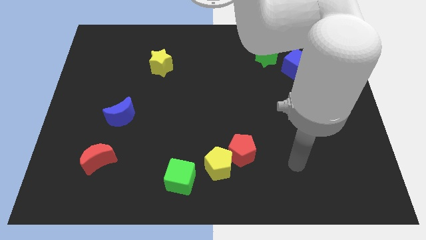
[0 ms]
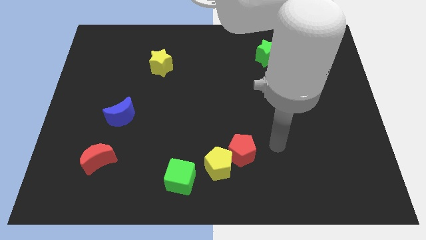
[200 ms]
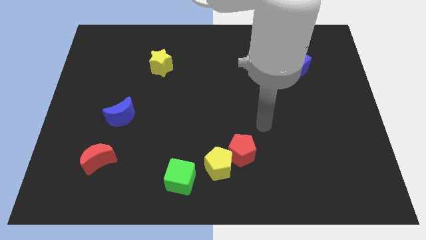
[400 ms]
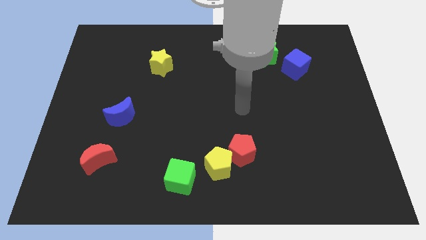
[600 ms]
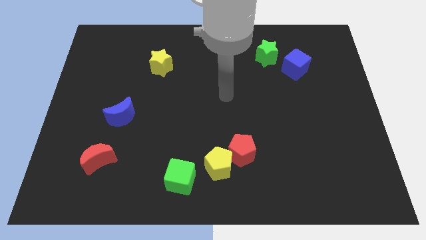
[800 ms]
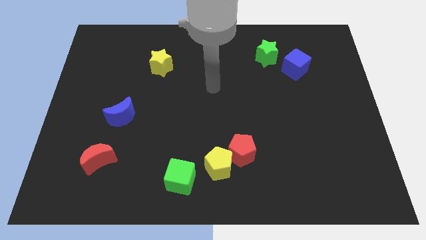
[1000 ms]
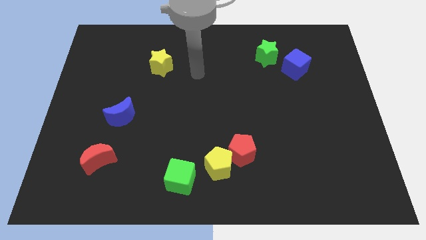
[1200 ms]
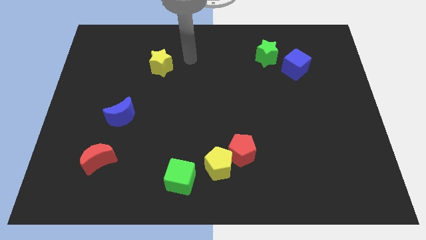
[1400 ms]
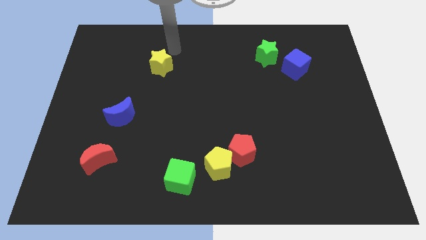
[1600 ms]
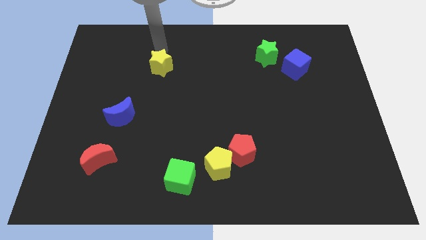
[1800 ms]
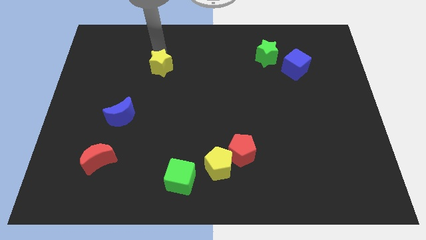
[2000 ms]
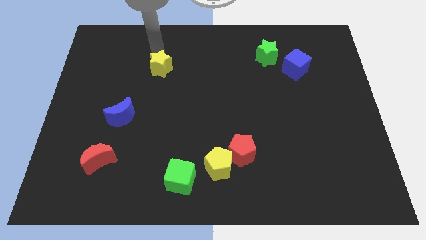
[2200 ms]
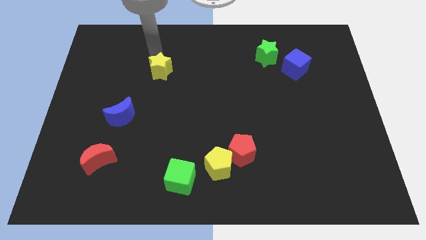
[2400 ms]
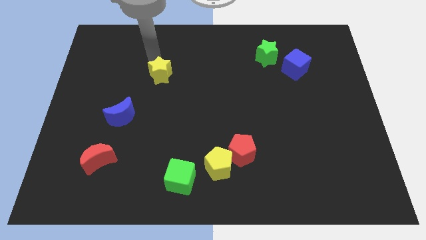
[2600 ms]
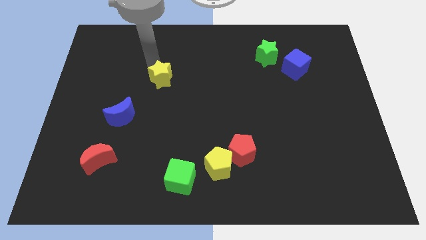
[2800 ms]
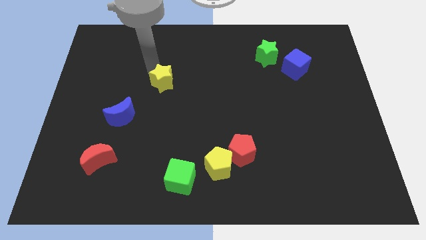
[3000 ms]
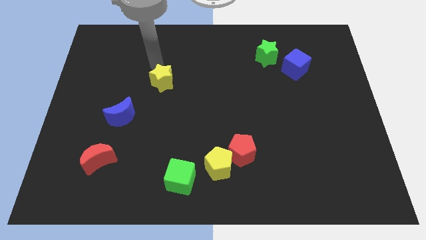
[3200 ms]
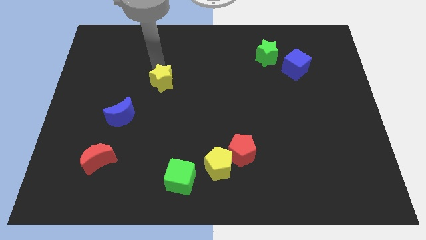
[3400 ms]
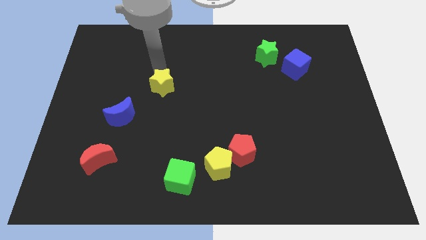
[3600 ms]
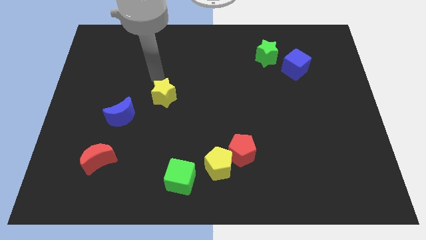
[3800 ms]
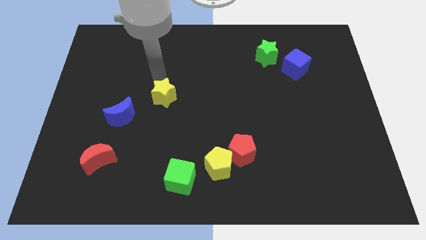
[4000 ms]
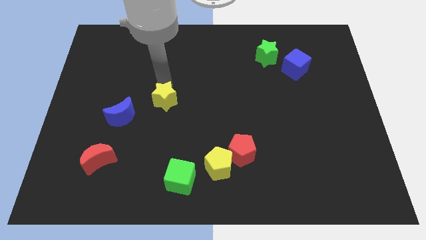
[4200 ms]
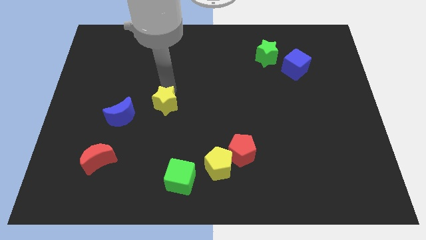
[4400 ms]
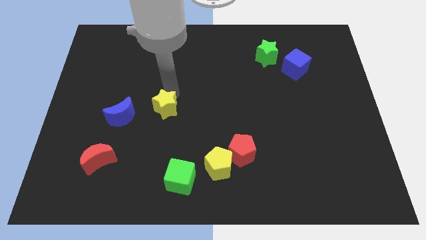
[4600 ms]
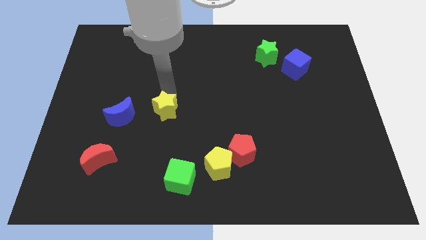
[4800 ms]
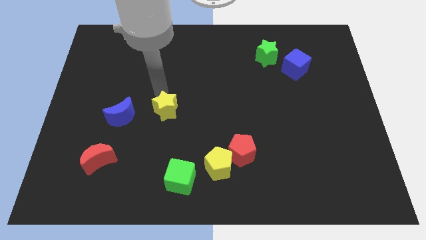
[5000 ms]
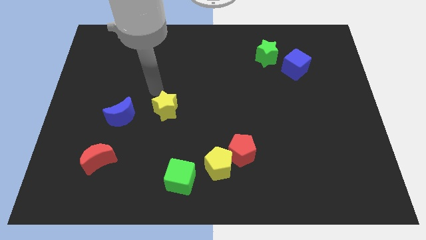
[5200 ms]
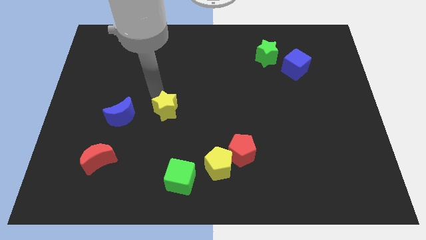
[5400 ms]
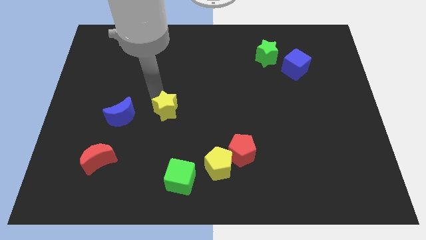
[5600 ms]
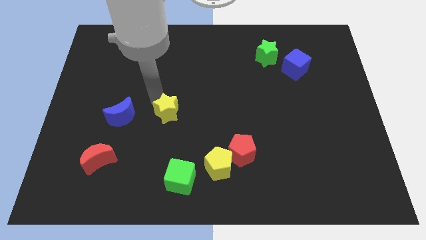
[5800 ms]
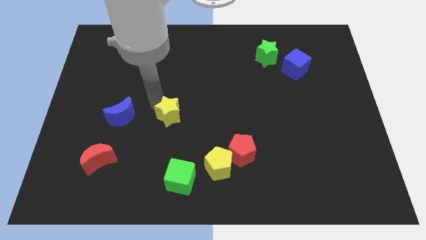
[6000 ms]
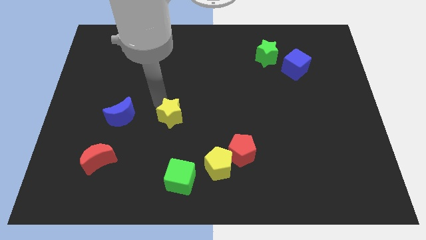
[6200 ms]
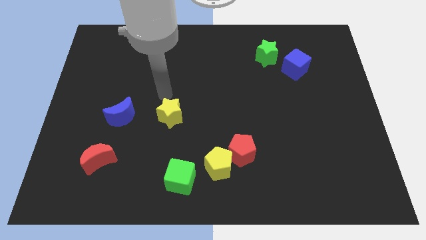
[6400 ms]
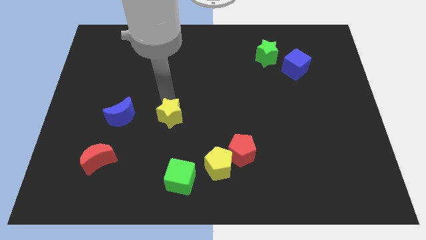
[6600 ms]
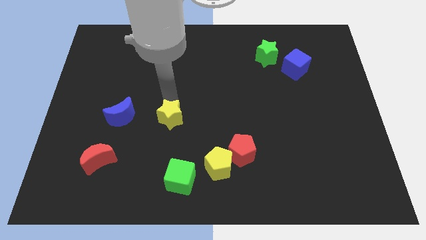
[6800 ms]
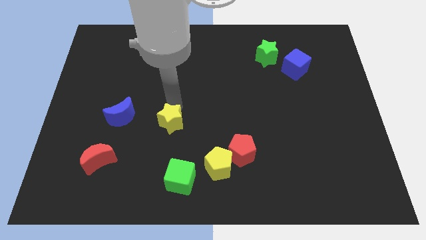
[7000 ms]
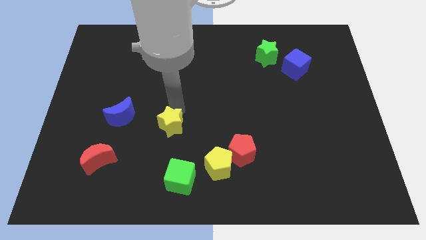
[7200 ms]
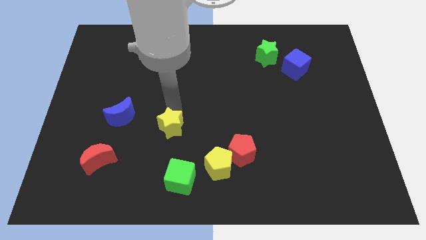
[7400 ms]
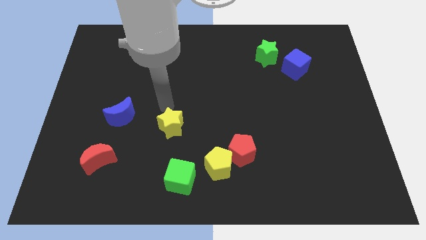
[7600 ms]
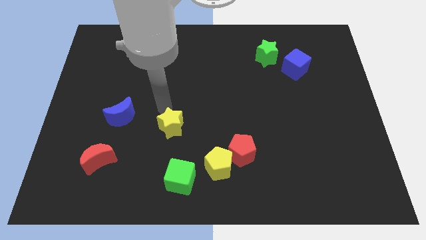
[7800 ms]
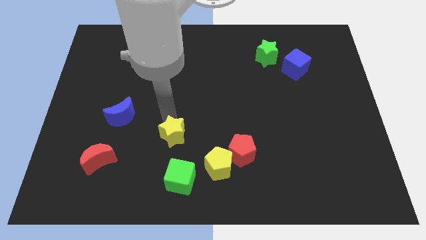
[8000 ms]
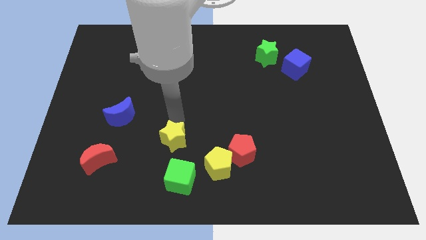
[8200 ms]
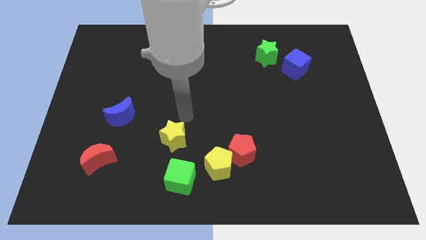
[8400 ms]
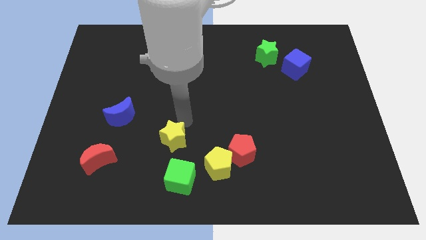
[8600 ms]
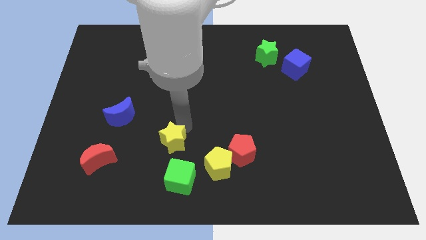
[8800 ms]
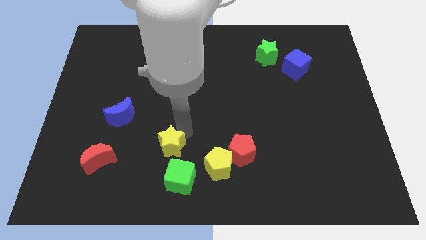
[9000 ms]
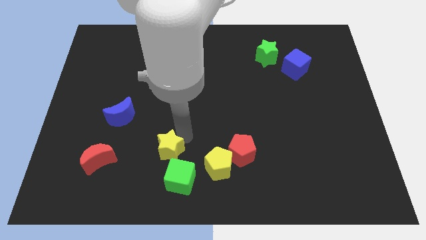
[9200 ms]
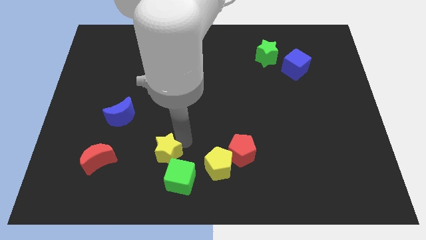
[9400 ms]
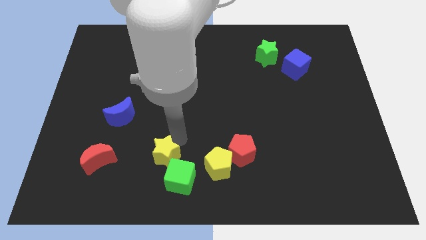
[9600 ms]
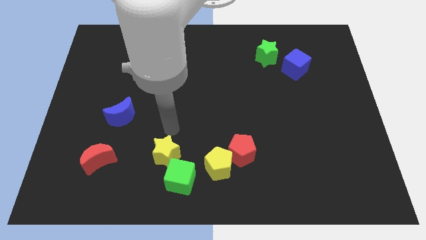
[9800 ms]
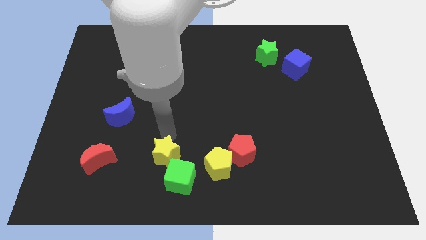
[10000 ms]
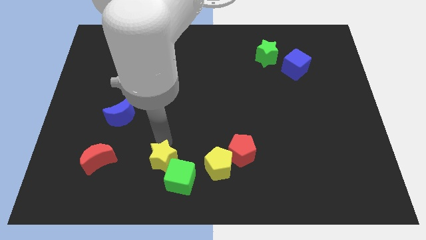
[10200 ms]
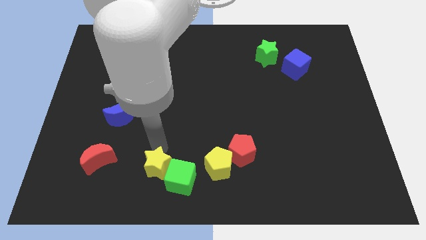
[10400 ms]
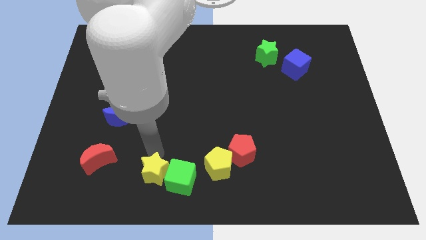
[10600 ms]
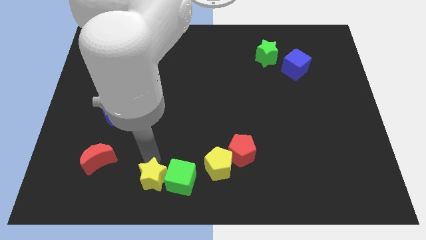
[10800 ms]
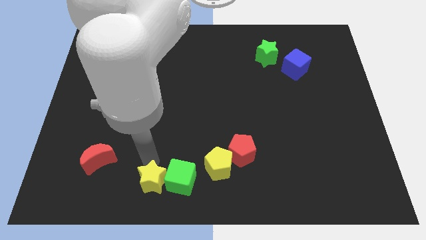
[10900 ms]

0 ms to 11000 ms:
put the yellow star to the bottom

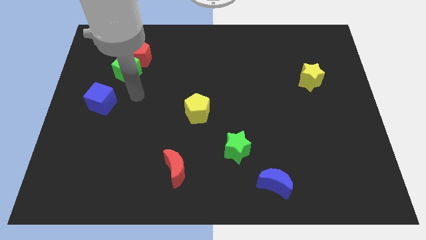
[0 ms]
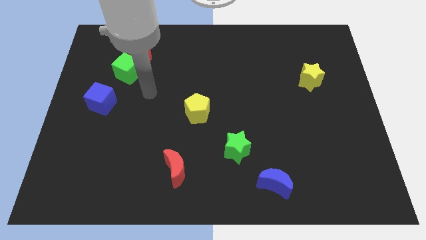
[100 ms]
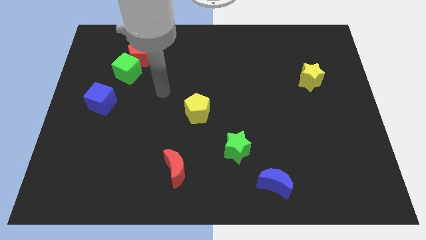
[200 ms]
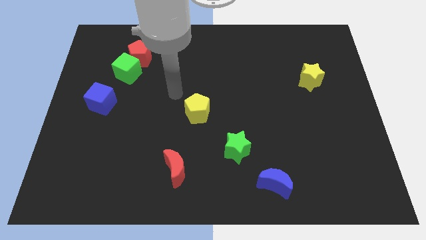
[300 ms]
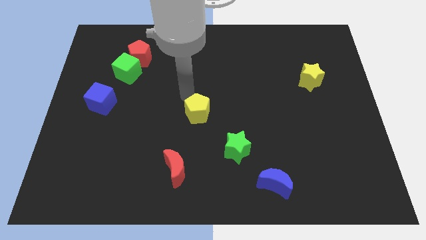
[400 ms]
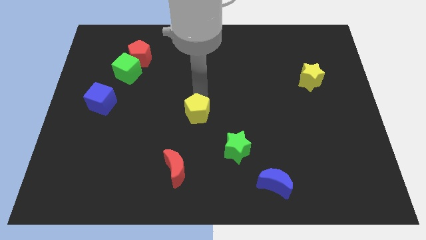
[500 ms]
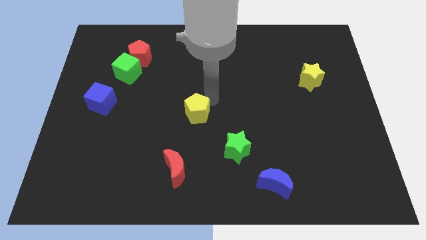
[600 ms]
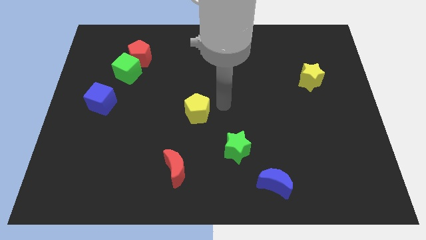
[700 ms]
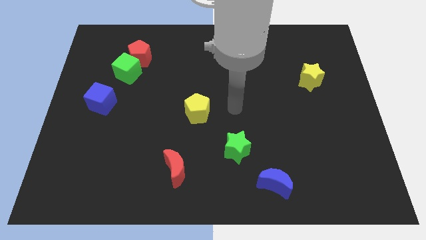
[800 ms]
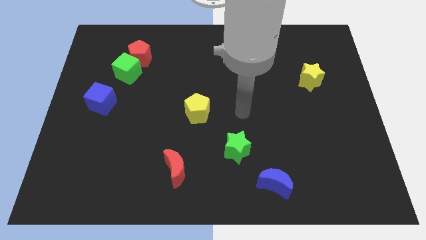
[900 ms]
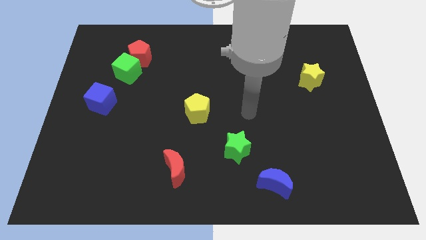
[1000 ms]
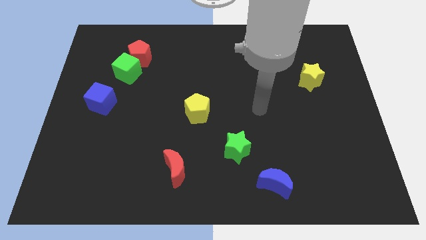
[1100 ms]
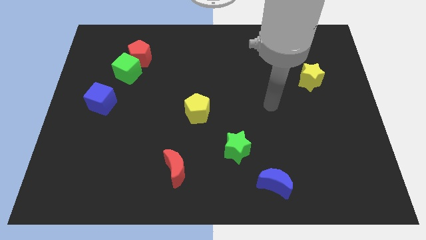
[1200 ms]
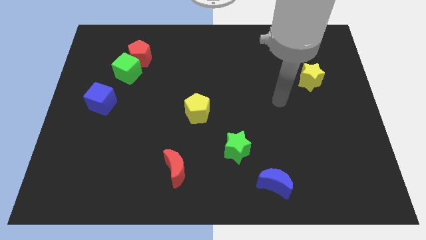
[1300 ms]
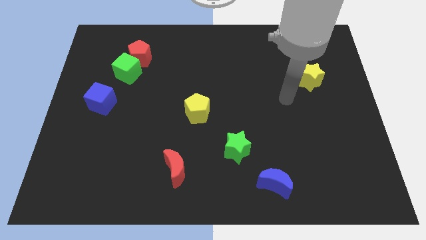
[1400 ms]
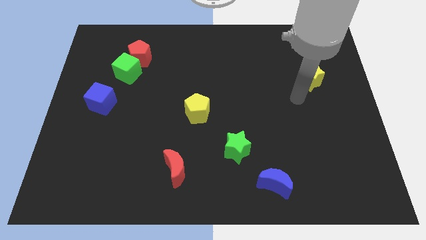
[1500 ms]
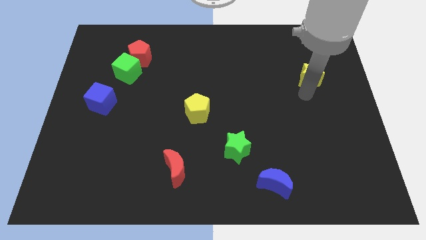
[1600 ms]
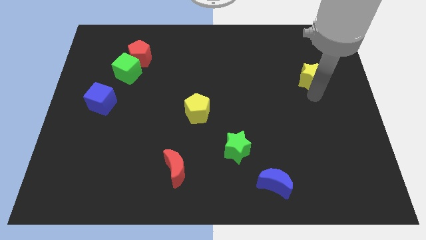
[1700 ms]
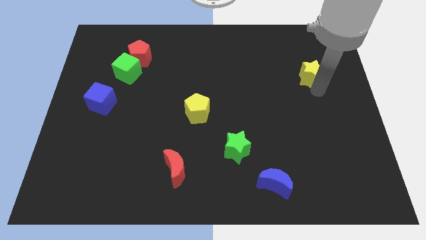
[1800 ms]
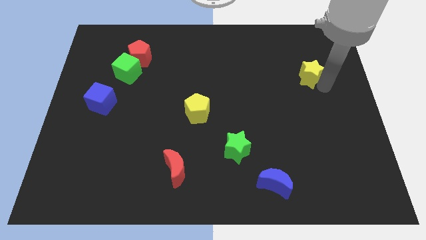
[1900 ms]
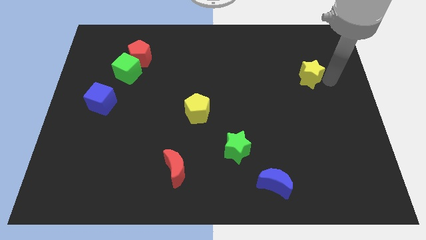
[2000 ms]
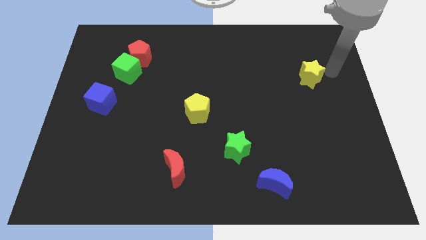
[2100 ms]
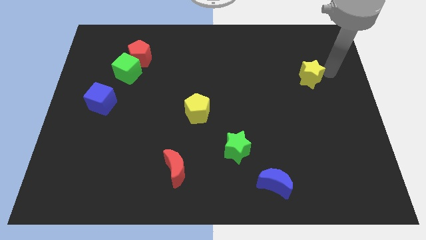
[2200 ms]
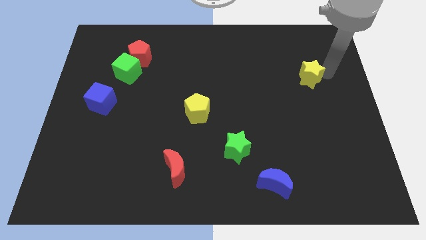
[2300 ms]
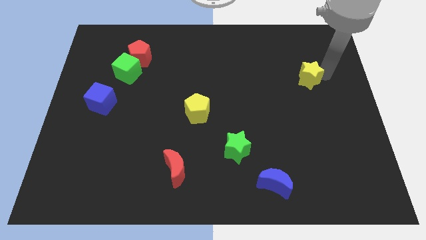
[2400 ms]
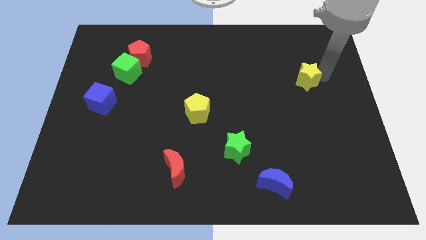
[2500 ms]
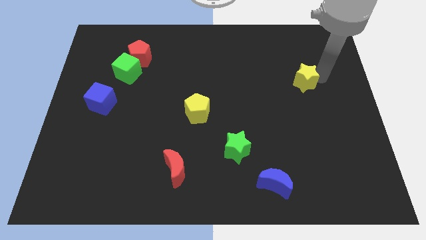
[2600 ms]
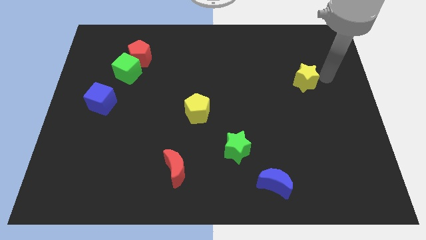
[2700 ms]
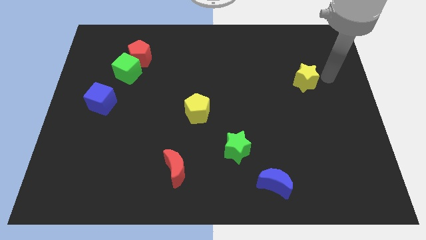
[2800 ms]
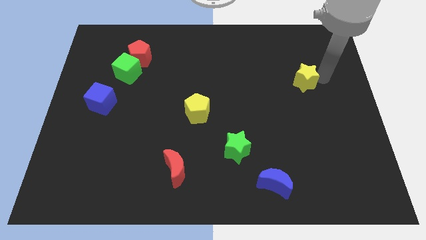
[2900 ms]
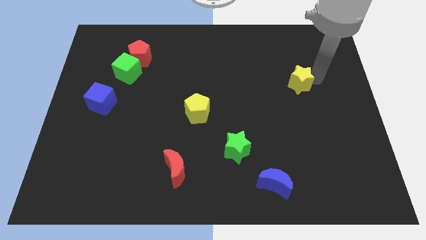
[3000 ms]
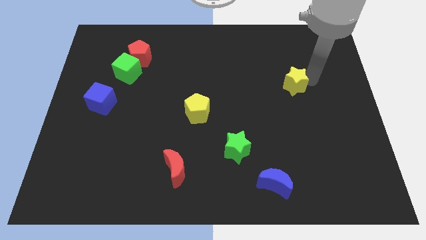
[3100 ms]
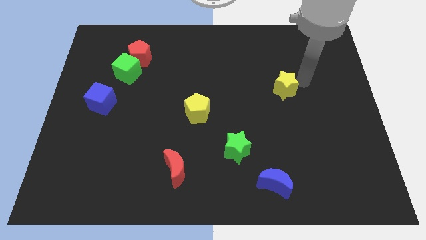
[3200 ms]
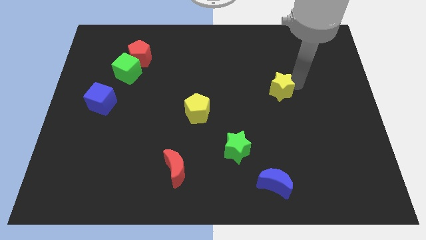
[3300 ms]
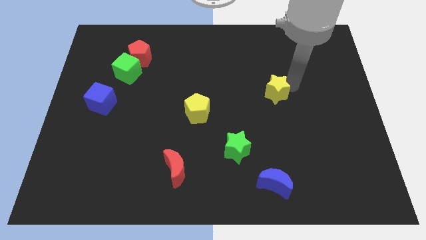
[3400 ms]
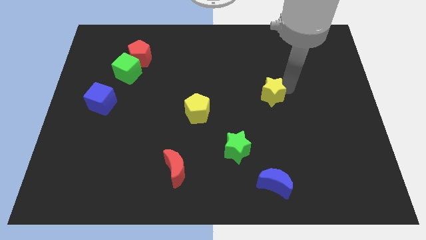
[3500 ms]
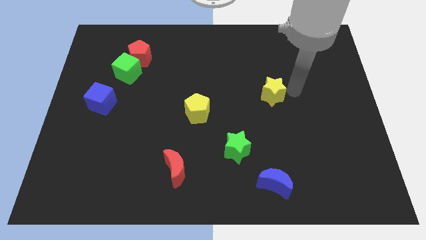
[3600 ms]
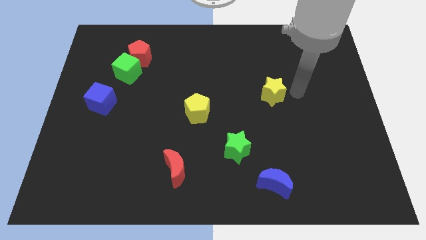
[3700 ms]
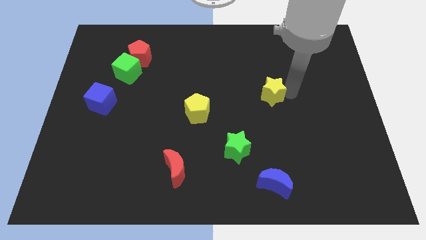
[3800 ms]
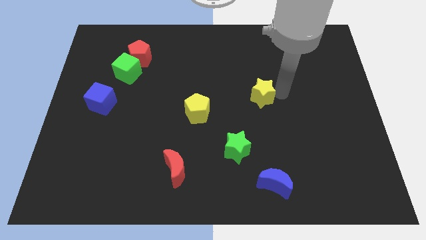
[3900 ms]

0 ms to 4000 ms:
move the yellow star to the middle
